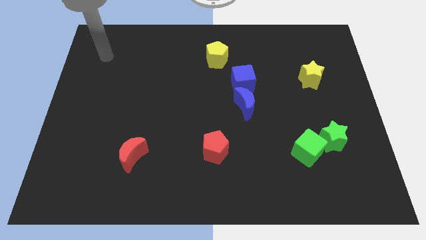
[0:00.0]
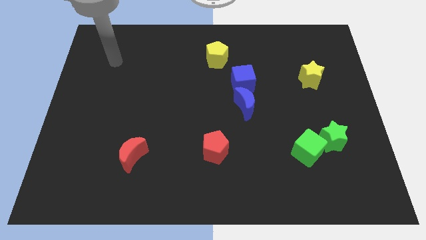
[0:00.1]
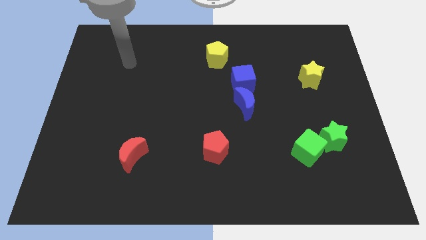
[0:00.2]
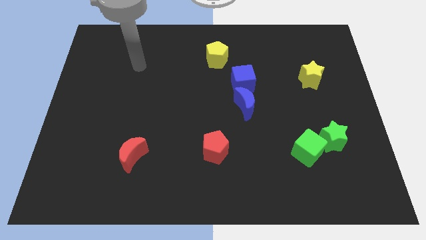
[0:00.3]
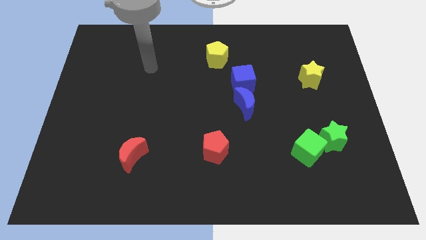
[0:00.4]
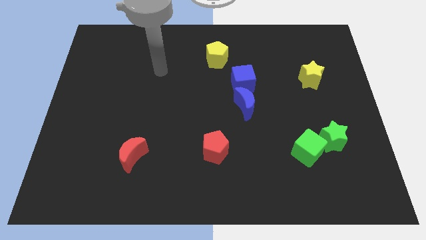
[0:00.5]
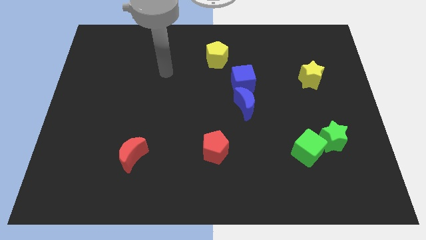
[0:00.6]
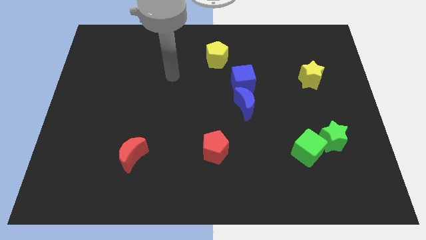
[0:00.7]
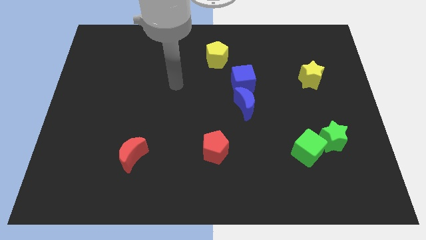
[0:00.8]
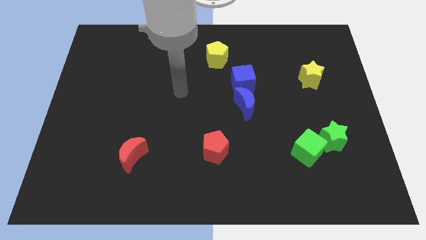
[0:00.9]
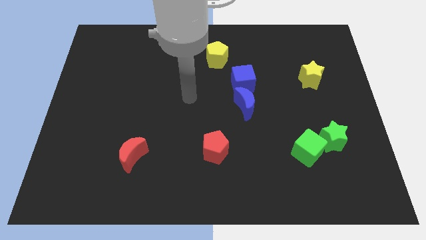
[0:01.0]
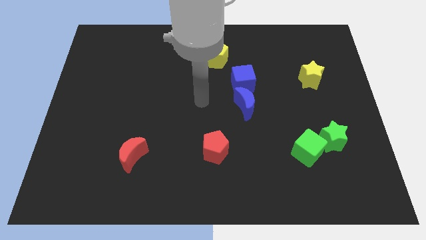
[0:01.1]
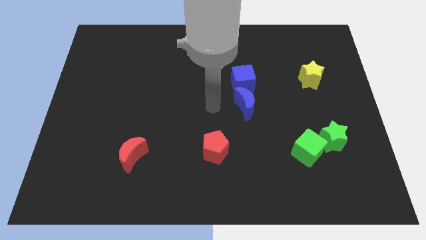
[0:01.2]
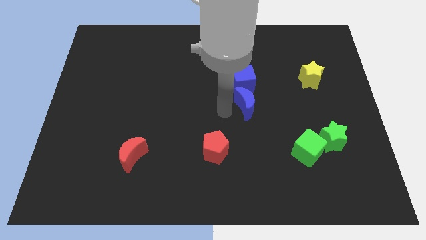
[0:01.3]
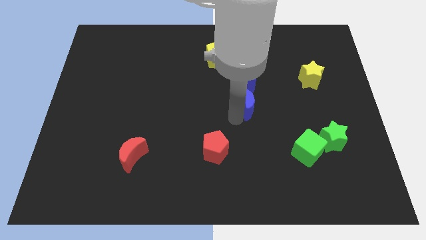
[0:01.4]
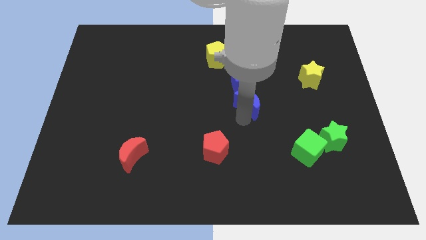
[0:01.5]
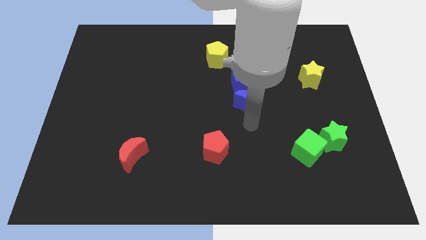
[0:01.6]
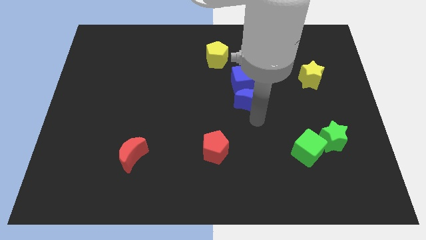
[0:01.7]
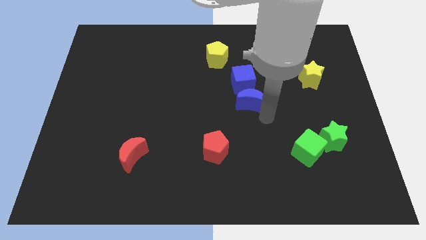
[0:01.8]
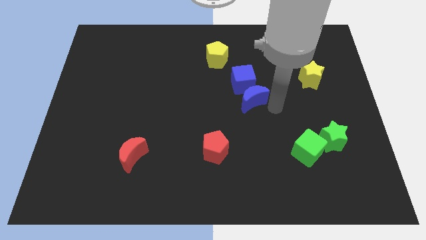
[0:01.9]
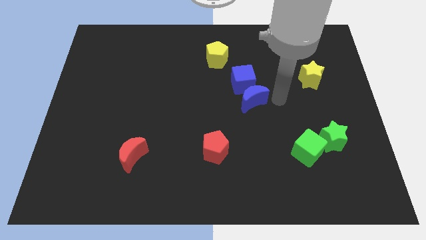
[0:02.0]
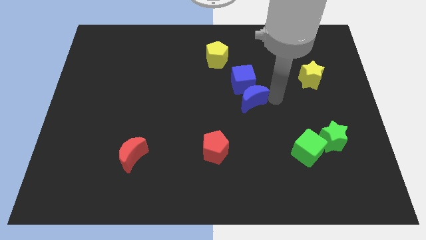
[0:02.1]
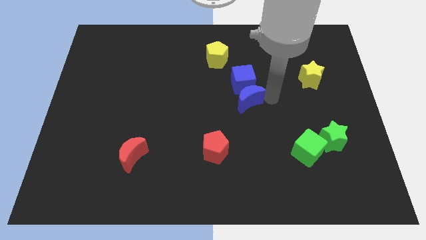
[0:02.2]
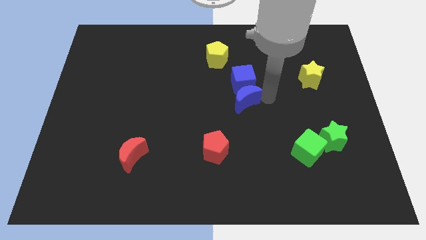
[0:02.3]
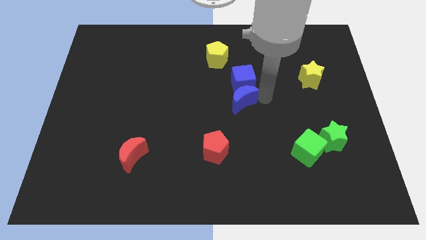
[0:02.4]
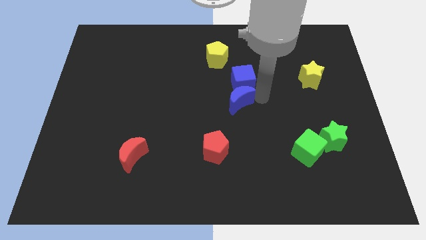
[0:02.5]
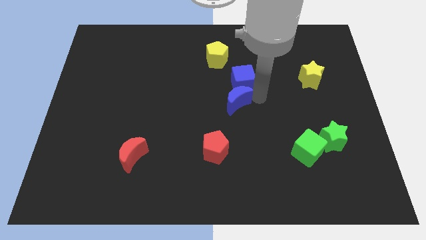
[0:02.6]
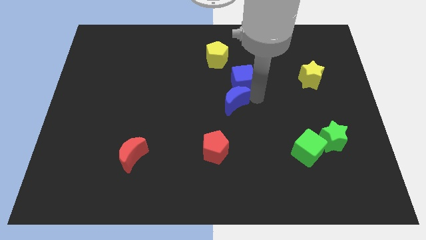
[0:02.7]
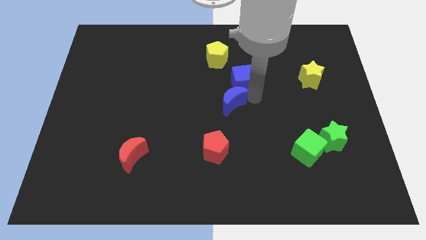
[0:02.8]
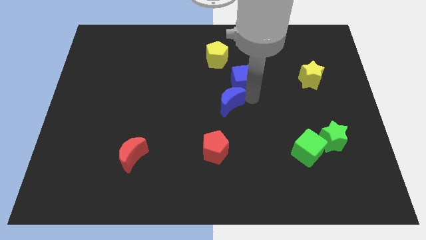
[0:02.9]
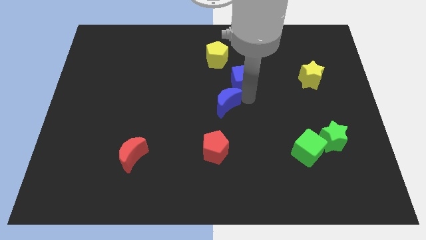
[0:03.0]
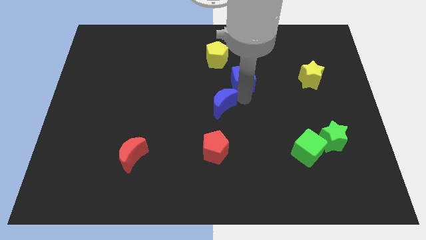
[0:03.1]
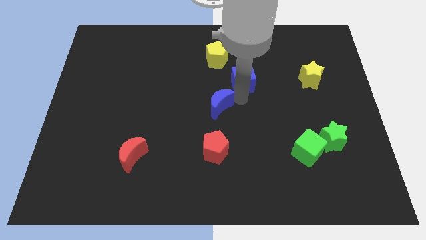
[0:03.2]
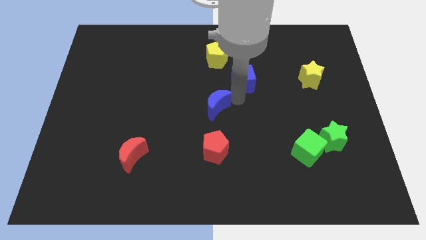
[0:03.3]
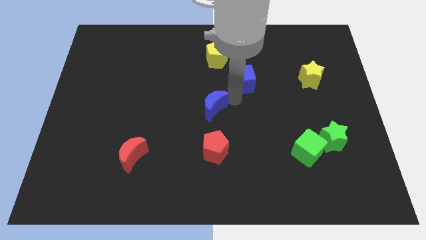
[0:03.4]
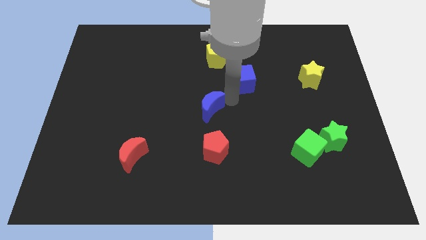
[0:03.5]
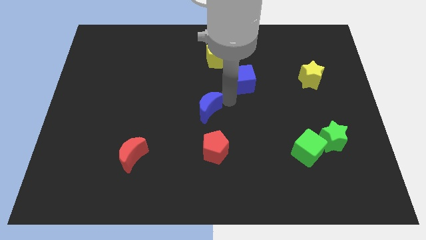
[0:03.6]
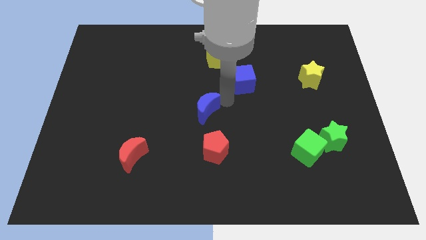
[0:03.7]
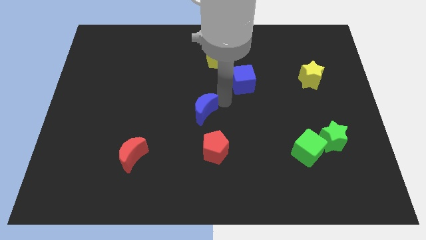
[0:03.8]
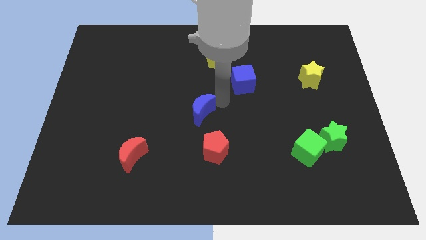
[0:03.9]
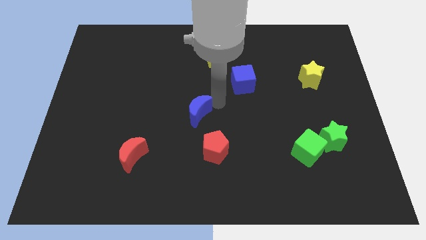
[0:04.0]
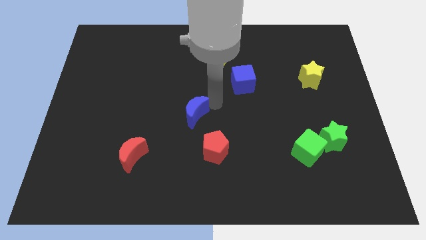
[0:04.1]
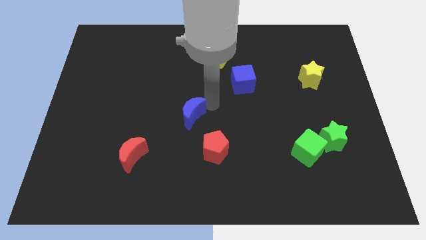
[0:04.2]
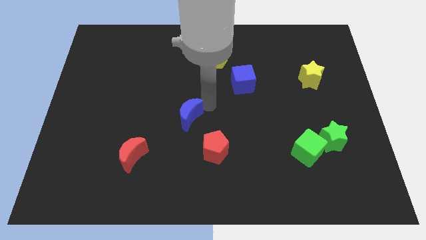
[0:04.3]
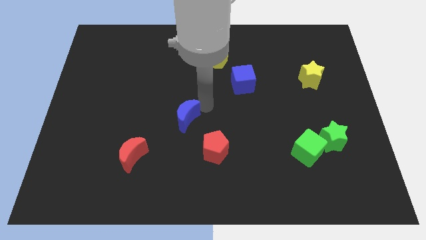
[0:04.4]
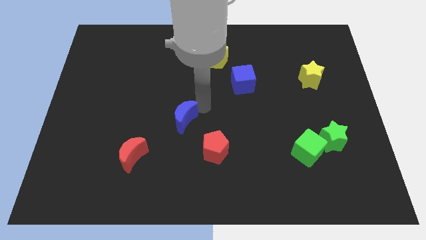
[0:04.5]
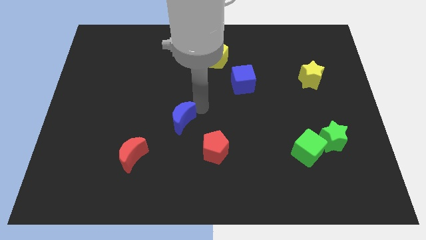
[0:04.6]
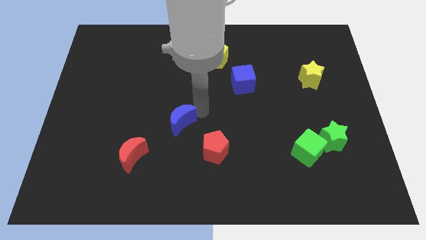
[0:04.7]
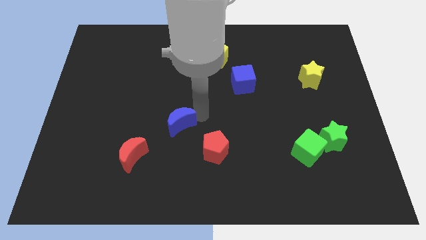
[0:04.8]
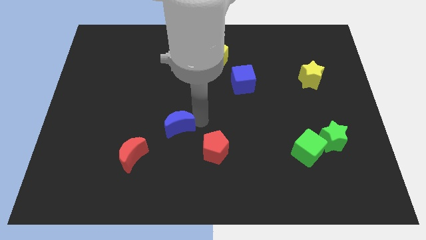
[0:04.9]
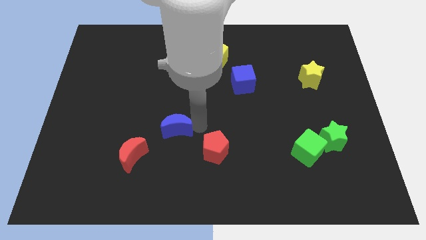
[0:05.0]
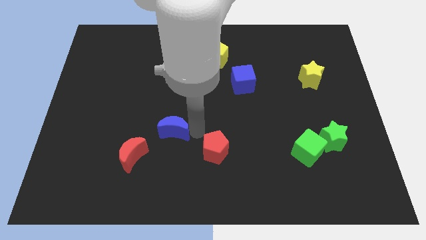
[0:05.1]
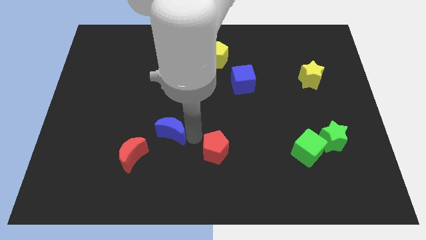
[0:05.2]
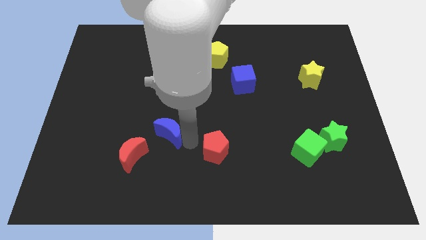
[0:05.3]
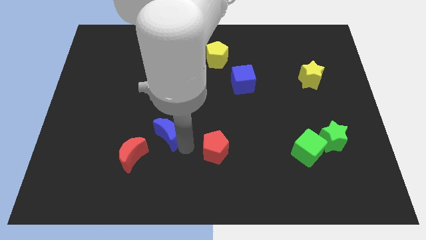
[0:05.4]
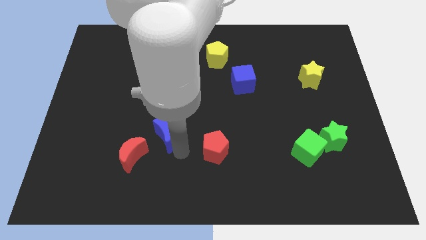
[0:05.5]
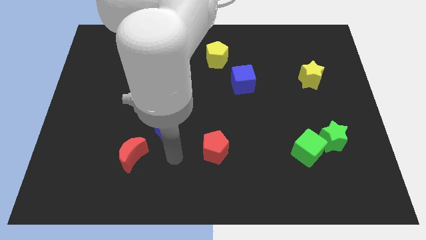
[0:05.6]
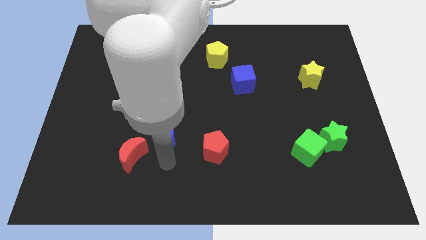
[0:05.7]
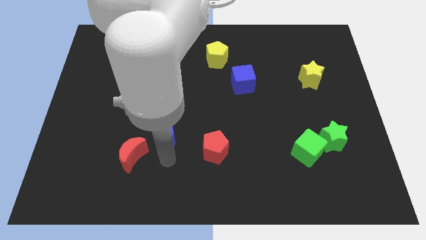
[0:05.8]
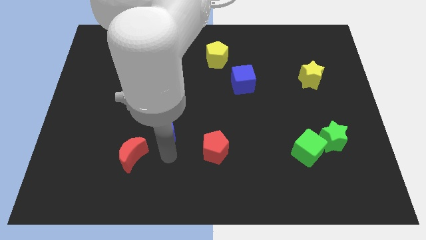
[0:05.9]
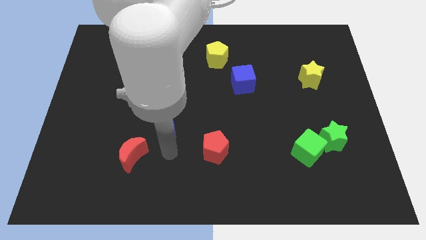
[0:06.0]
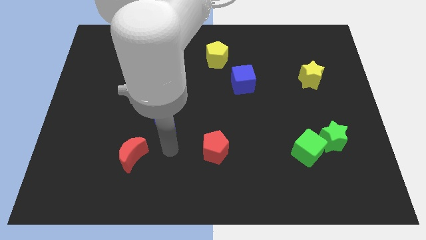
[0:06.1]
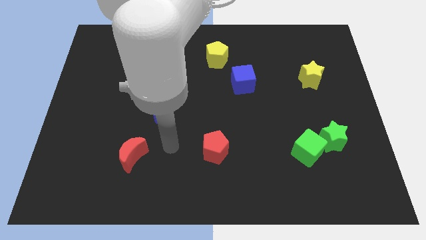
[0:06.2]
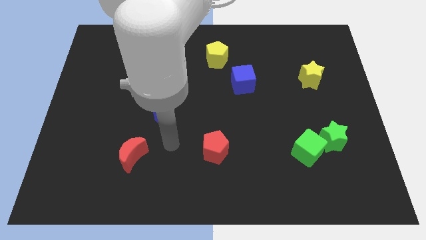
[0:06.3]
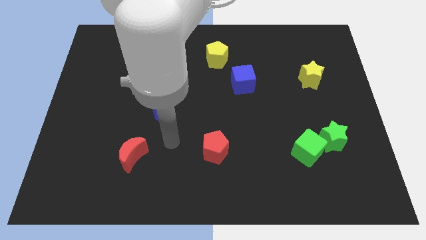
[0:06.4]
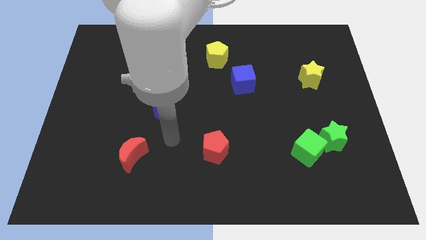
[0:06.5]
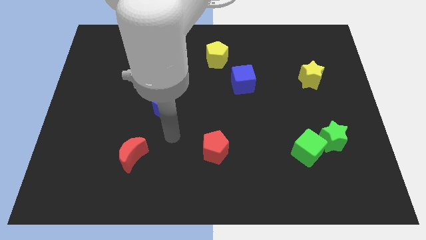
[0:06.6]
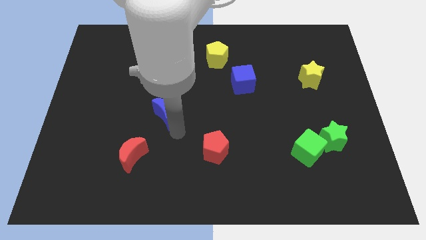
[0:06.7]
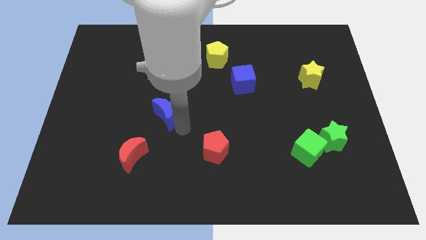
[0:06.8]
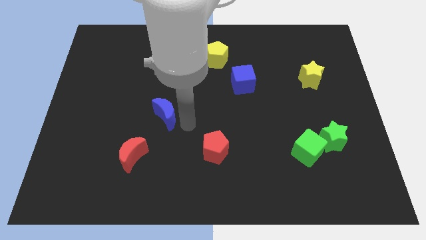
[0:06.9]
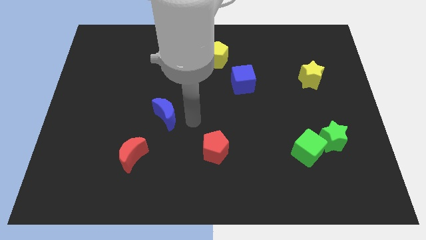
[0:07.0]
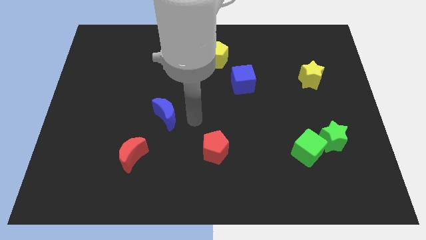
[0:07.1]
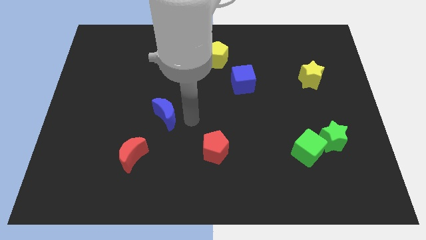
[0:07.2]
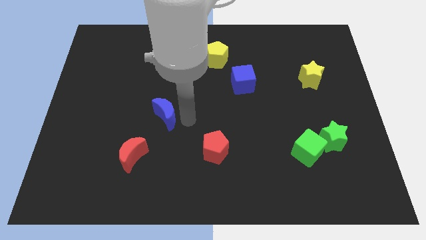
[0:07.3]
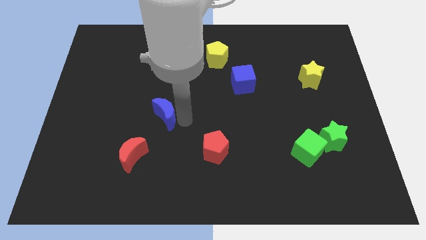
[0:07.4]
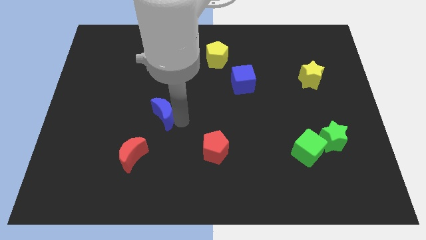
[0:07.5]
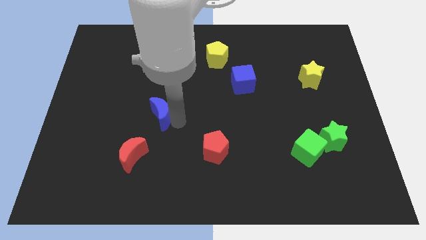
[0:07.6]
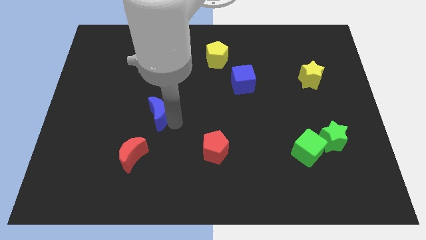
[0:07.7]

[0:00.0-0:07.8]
slide the blue moon left

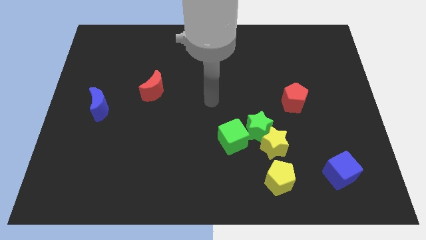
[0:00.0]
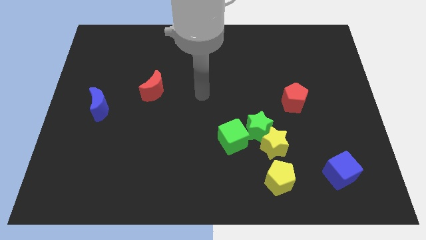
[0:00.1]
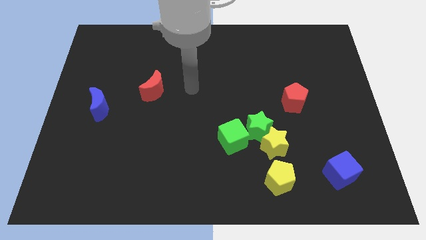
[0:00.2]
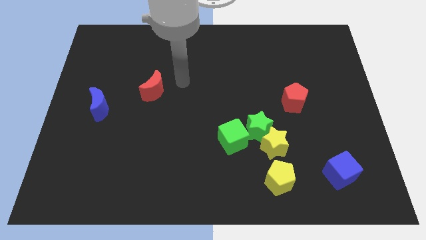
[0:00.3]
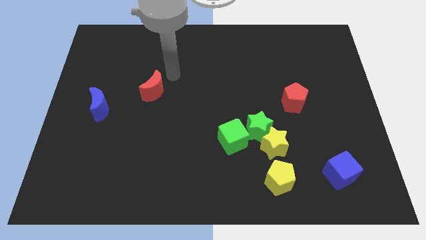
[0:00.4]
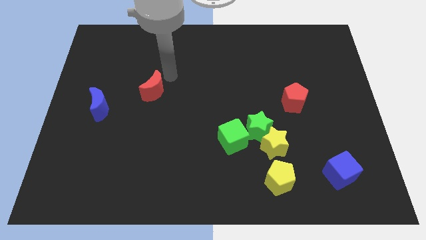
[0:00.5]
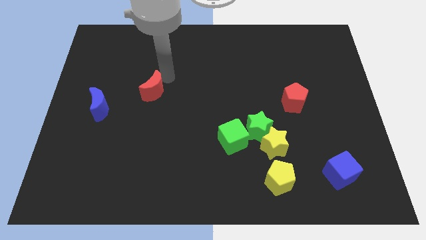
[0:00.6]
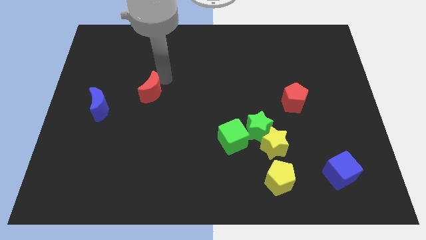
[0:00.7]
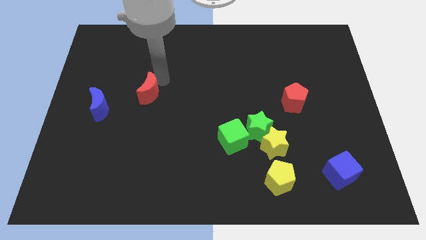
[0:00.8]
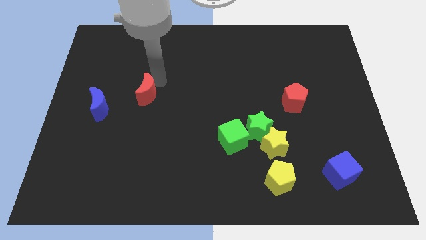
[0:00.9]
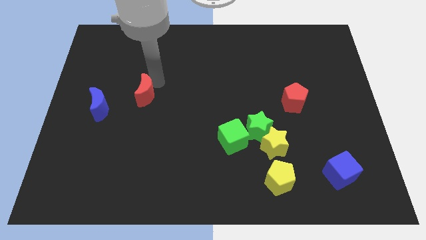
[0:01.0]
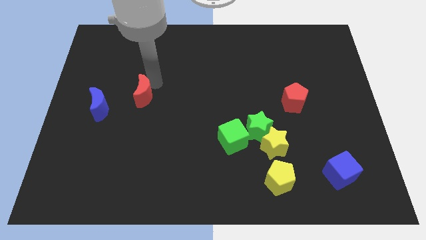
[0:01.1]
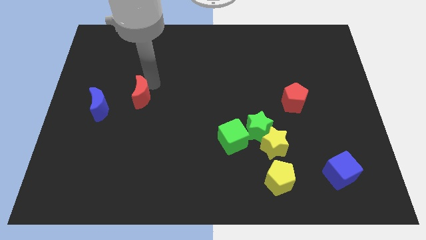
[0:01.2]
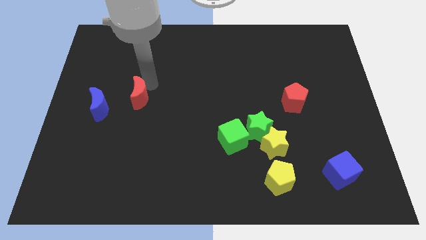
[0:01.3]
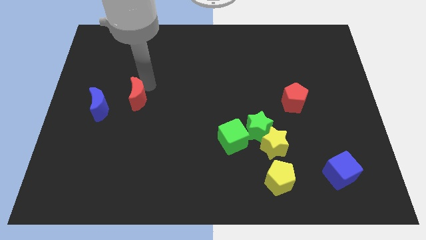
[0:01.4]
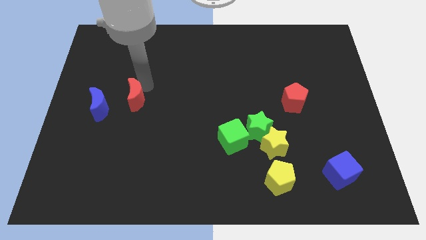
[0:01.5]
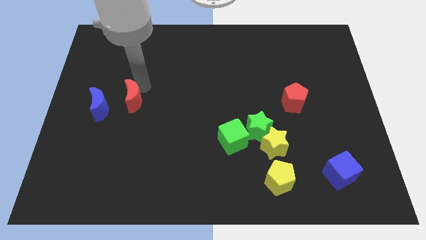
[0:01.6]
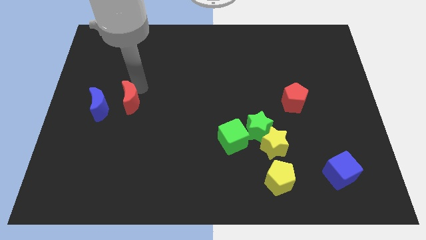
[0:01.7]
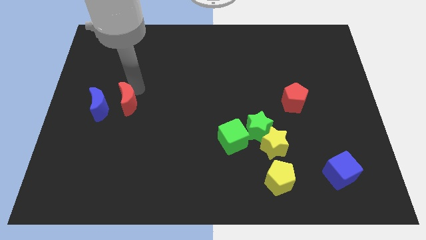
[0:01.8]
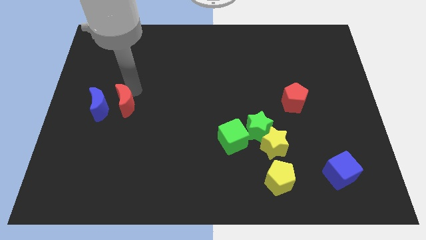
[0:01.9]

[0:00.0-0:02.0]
push the red moon a bit down and to the left diagonally
